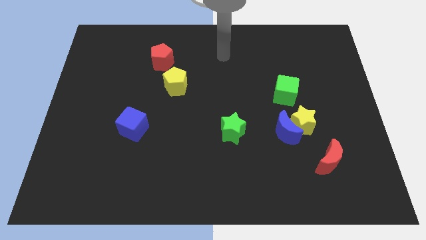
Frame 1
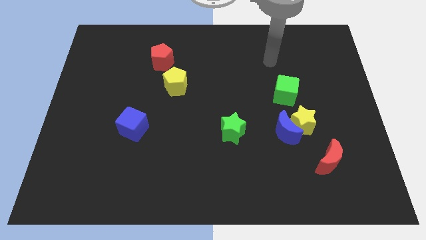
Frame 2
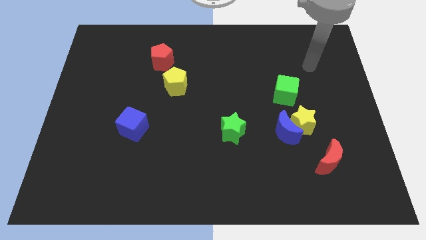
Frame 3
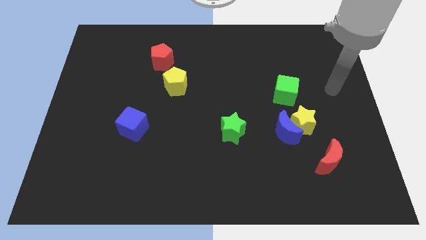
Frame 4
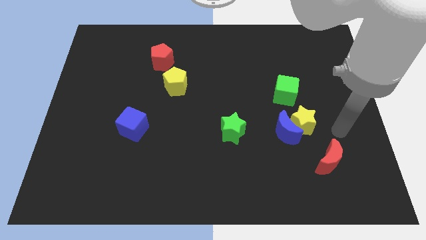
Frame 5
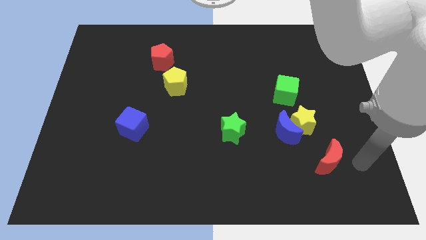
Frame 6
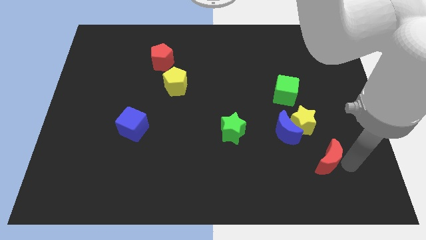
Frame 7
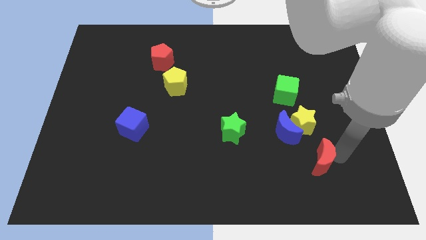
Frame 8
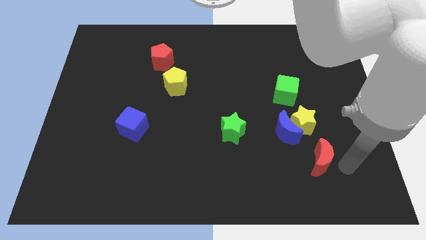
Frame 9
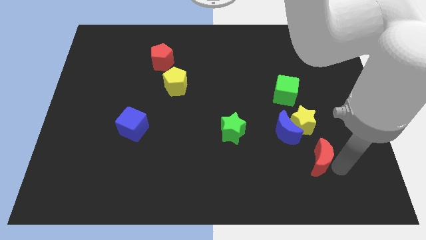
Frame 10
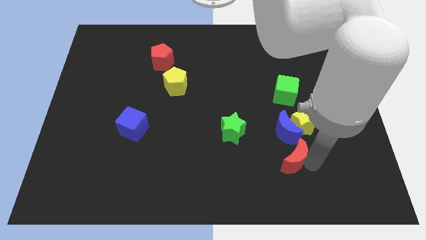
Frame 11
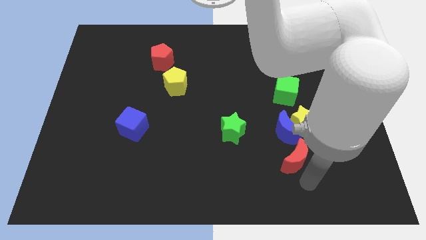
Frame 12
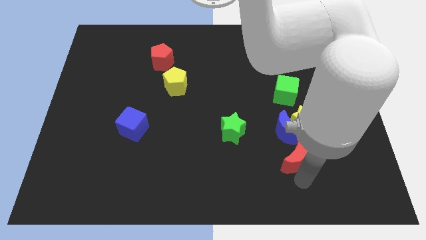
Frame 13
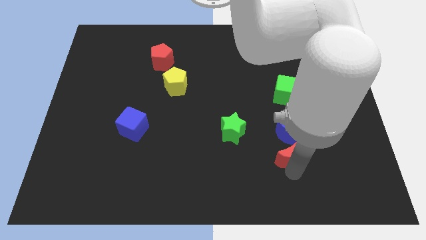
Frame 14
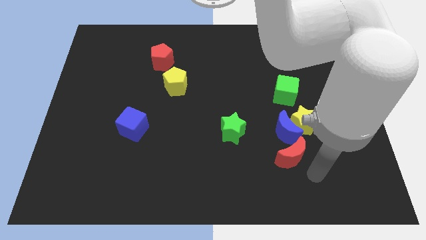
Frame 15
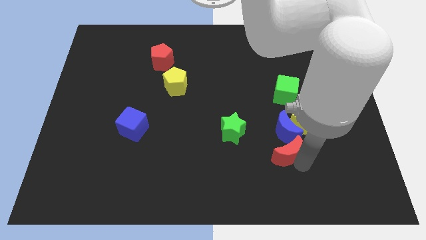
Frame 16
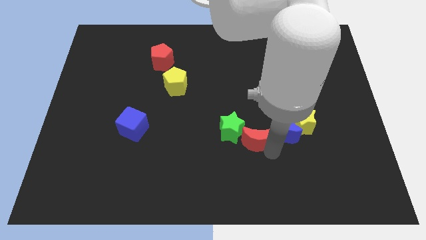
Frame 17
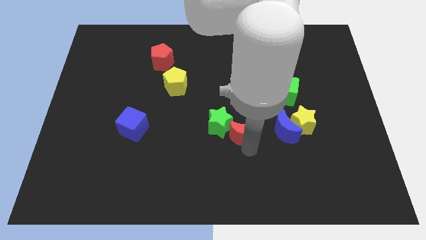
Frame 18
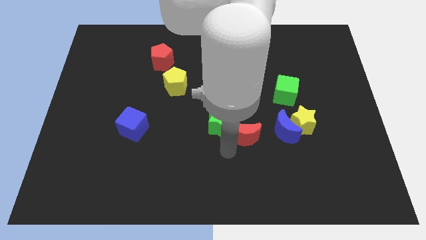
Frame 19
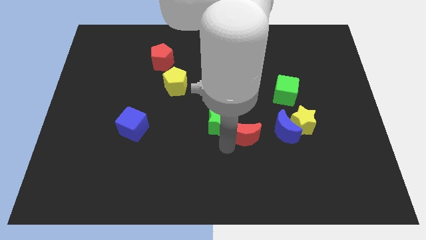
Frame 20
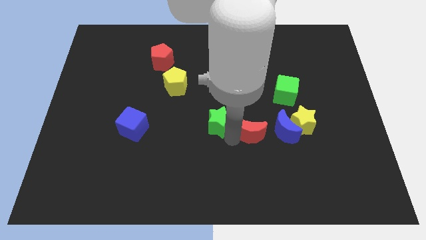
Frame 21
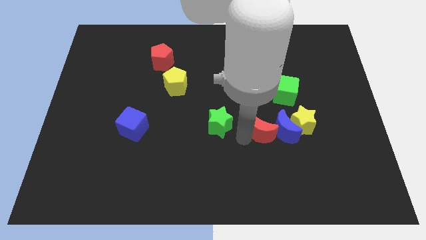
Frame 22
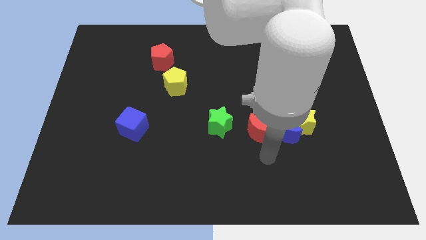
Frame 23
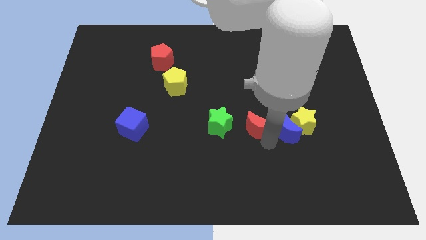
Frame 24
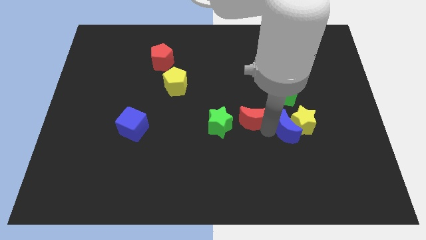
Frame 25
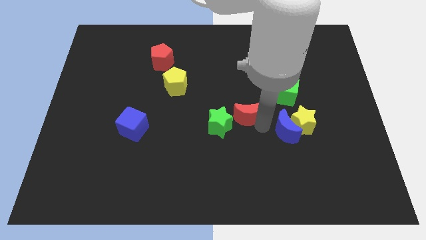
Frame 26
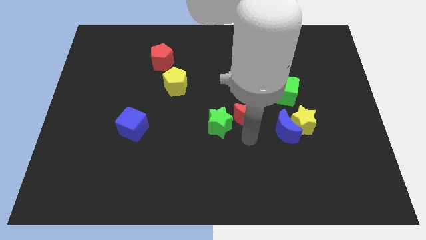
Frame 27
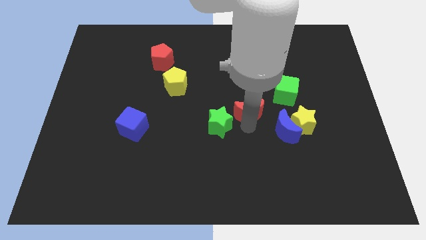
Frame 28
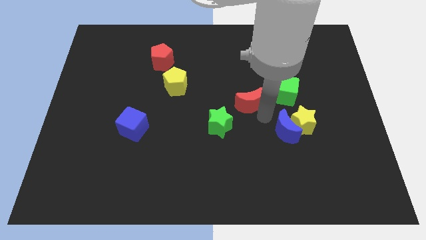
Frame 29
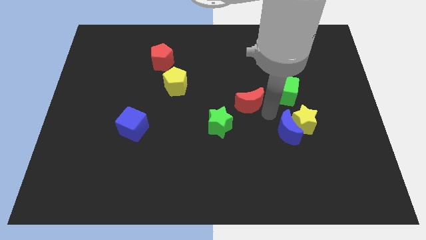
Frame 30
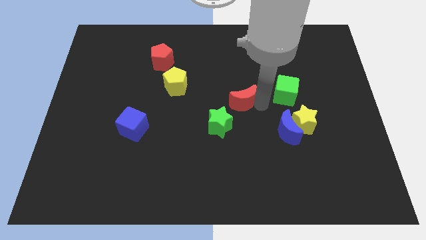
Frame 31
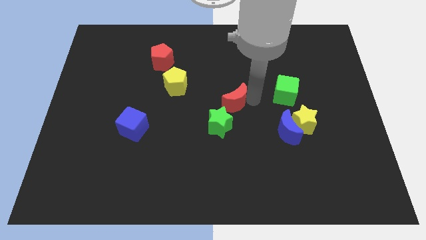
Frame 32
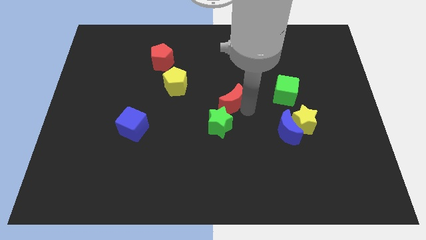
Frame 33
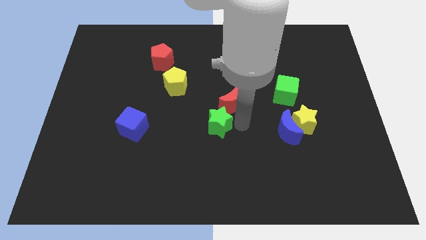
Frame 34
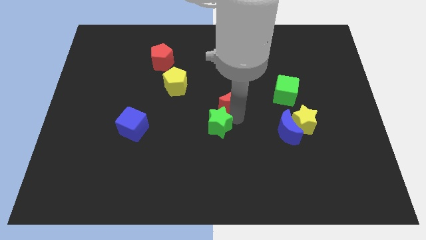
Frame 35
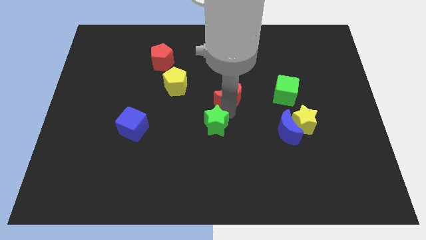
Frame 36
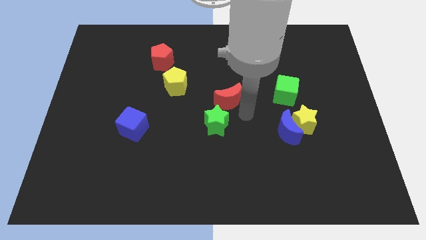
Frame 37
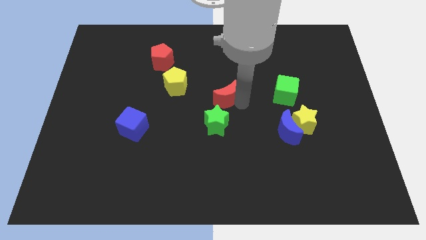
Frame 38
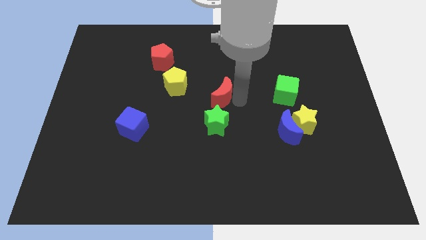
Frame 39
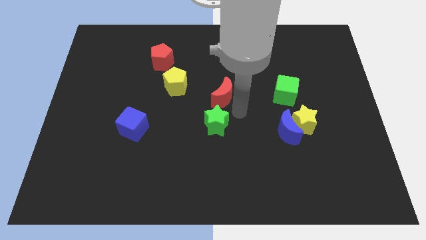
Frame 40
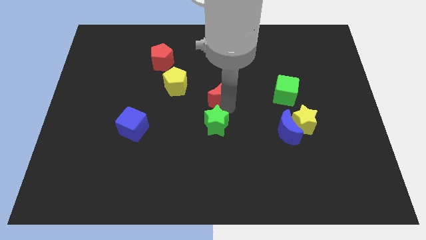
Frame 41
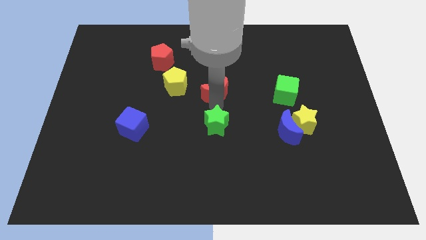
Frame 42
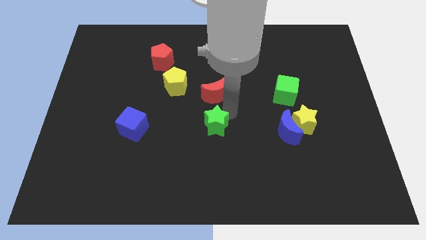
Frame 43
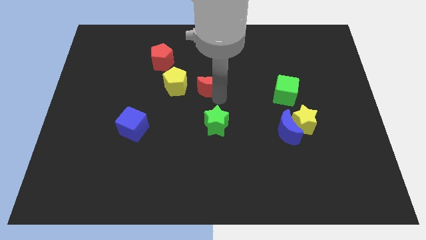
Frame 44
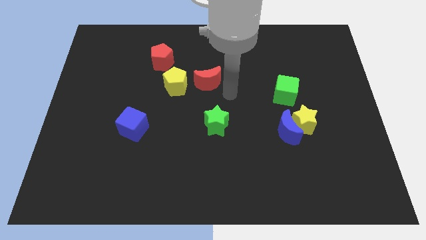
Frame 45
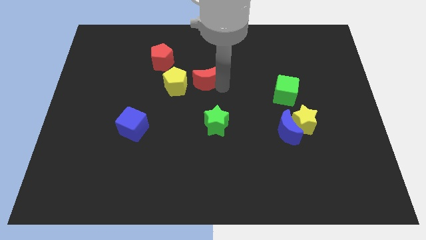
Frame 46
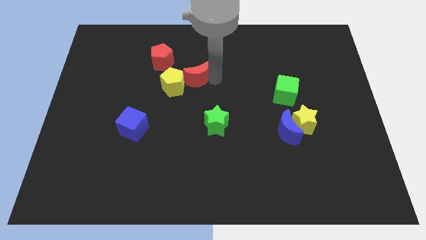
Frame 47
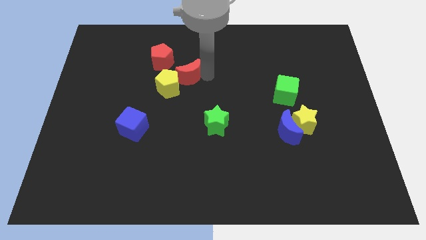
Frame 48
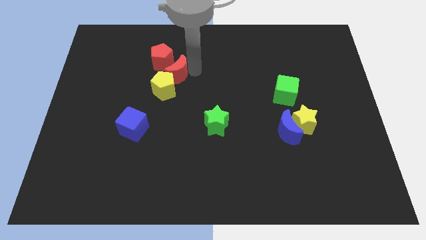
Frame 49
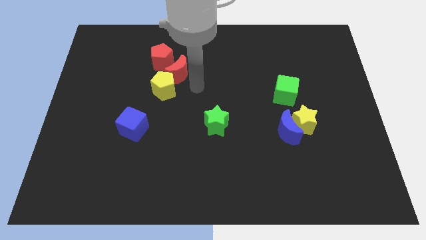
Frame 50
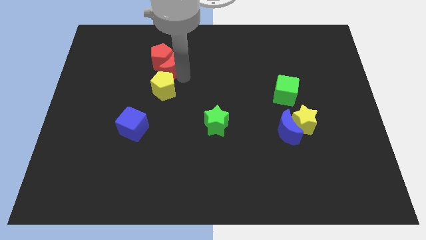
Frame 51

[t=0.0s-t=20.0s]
push the red moon to the red pentagon

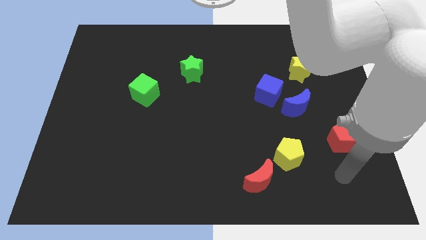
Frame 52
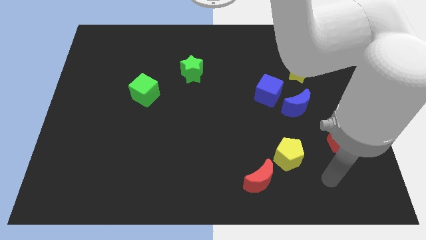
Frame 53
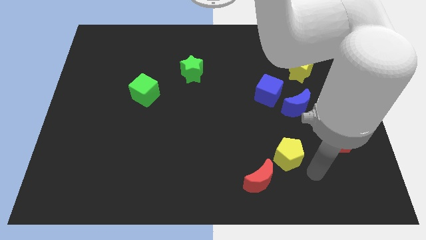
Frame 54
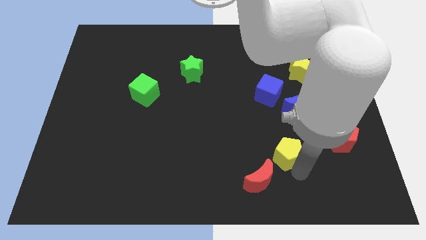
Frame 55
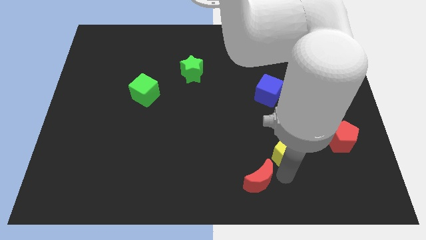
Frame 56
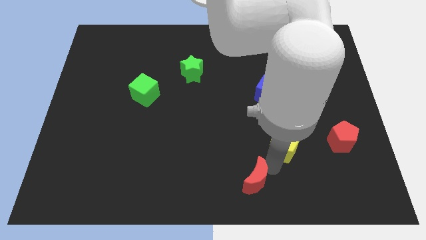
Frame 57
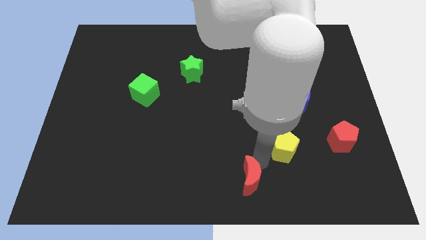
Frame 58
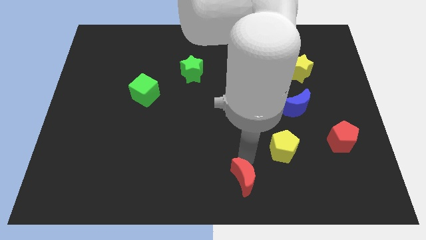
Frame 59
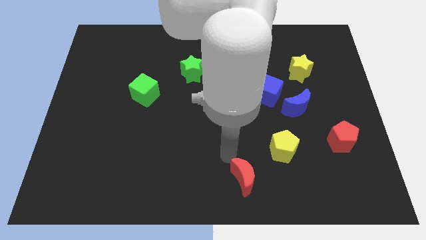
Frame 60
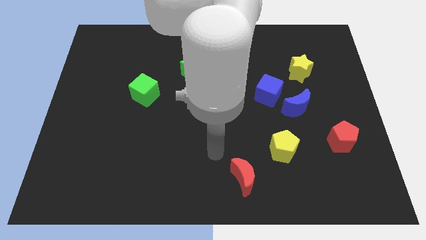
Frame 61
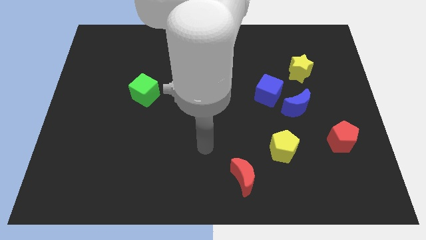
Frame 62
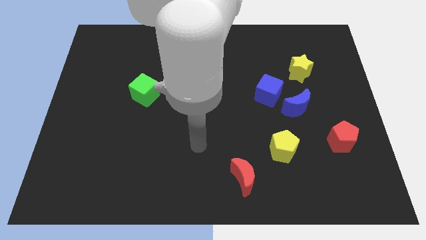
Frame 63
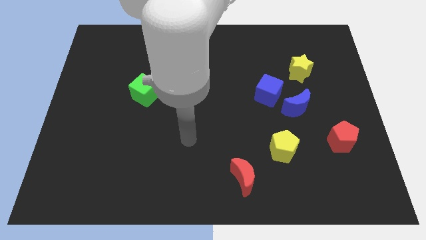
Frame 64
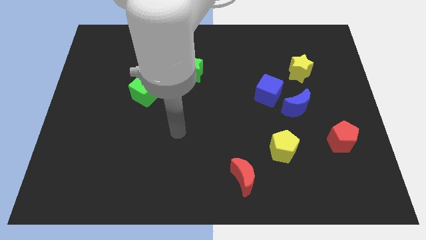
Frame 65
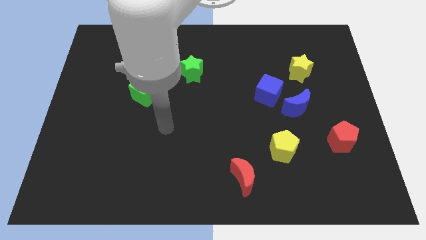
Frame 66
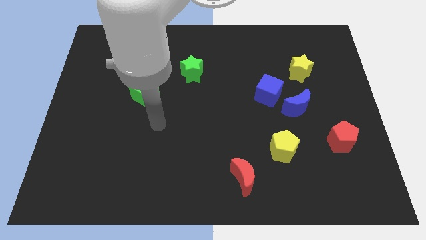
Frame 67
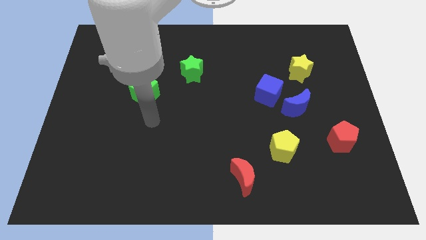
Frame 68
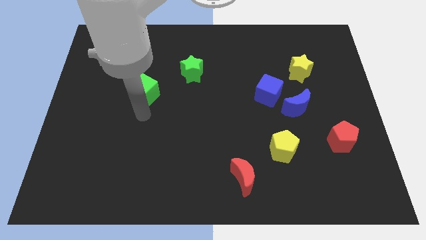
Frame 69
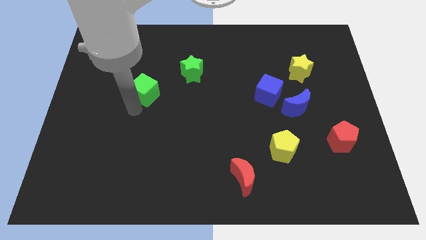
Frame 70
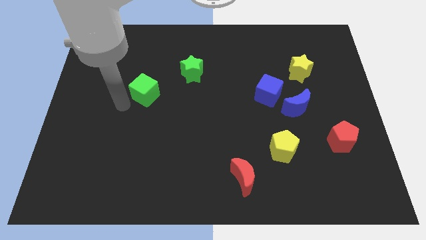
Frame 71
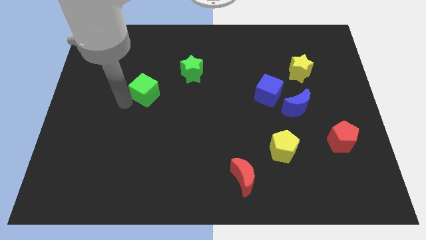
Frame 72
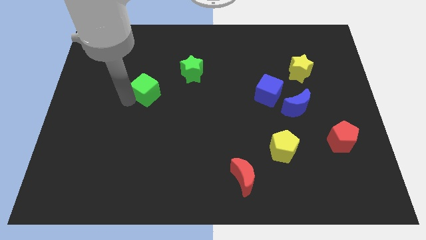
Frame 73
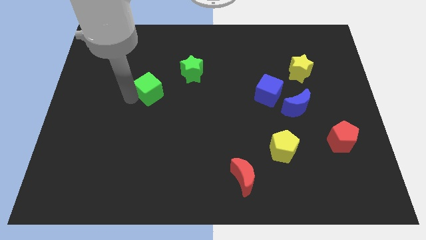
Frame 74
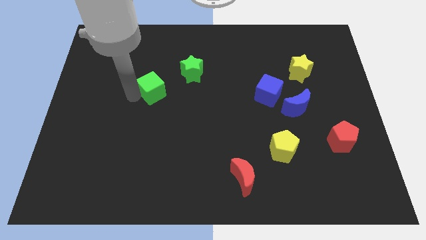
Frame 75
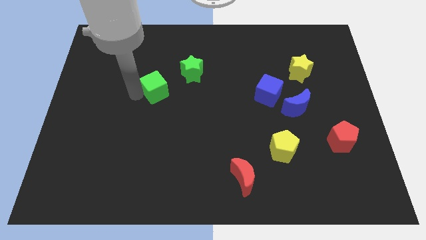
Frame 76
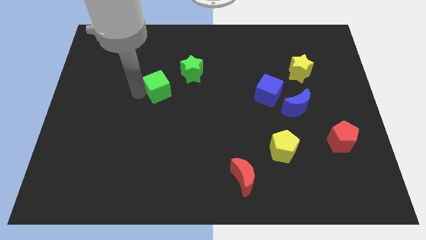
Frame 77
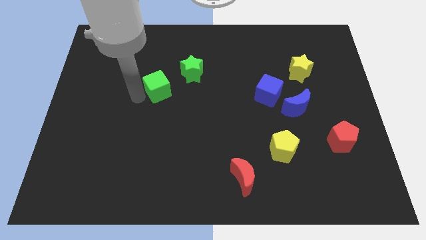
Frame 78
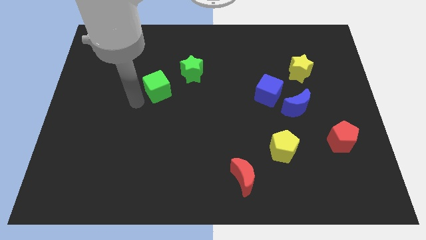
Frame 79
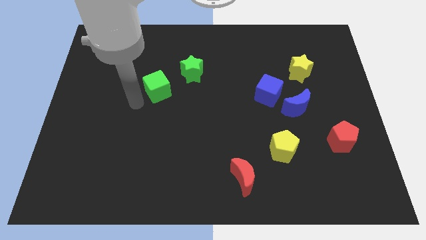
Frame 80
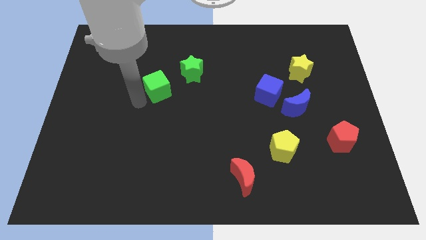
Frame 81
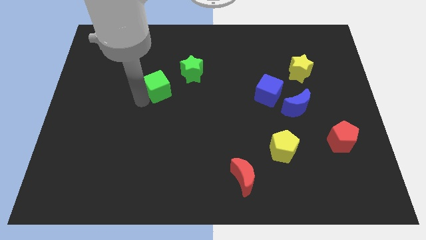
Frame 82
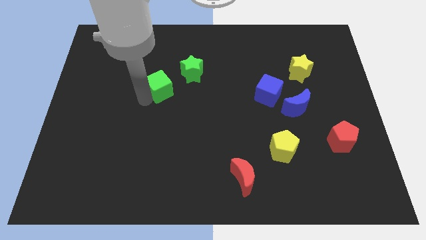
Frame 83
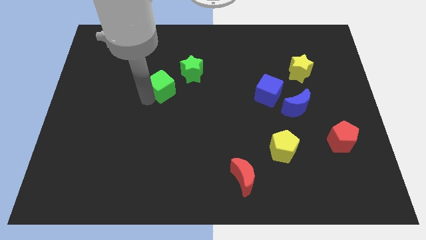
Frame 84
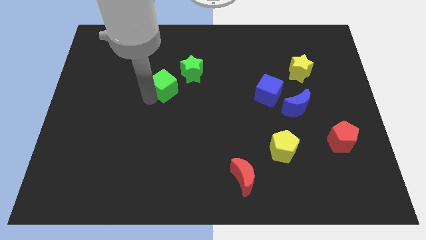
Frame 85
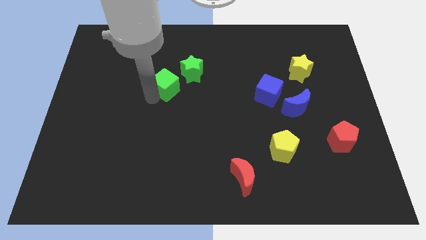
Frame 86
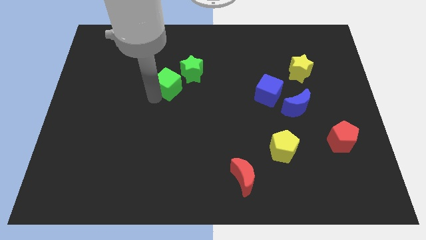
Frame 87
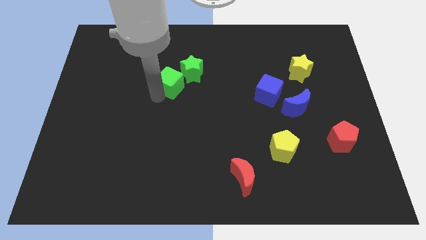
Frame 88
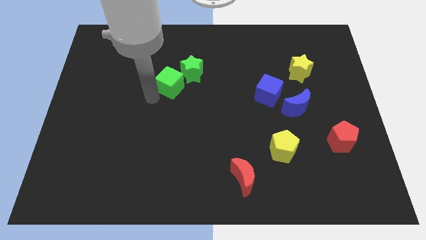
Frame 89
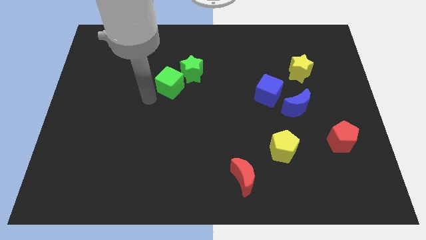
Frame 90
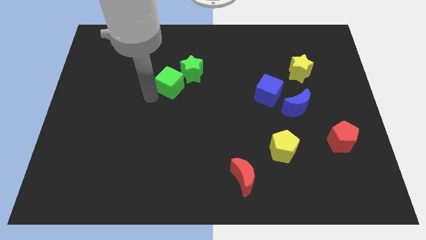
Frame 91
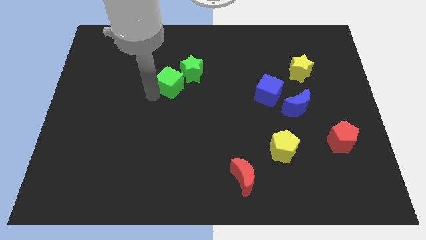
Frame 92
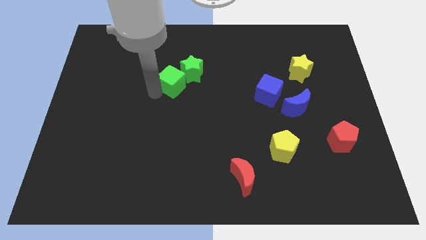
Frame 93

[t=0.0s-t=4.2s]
push the green cube to the green star
